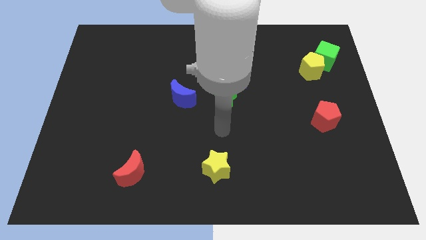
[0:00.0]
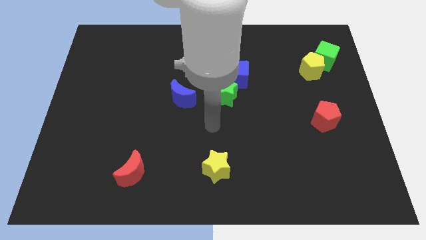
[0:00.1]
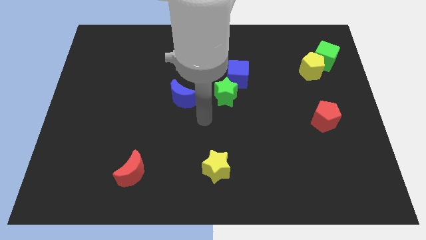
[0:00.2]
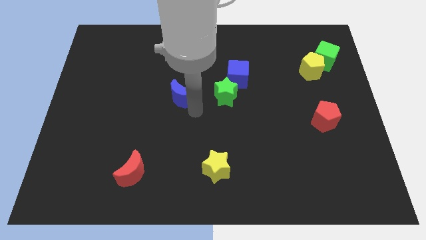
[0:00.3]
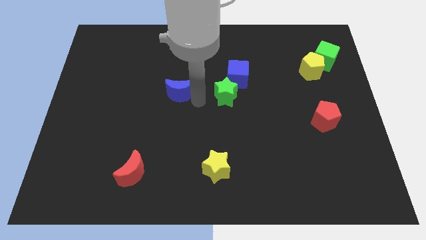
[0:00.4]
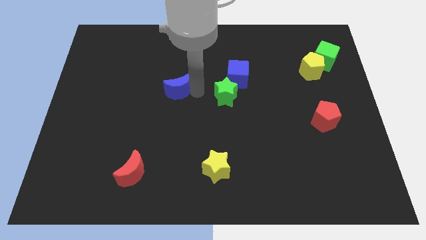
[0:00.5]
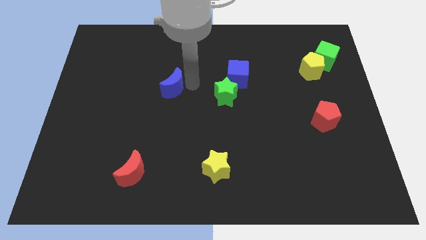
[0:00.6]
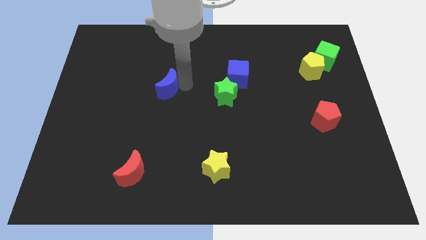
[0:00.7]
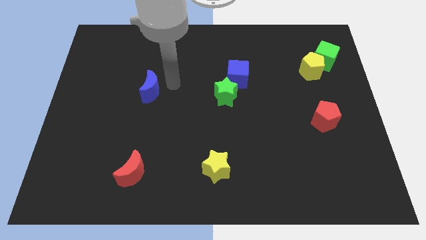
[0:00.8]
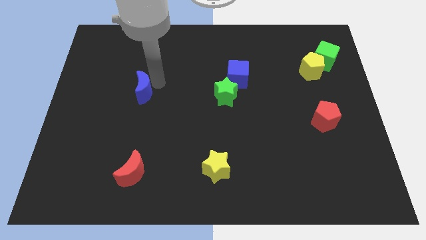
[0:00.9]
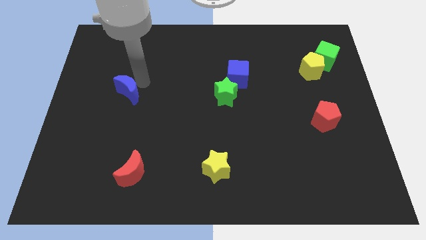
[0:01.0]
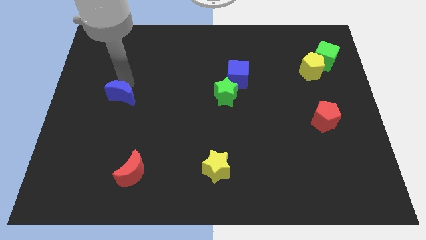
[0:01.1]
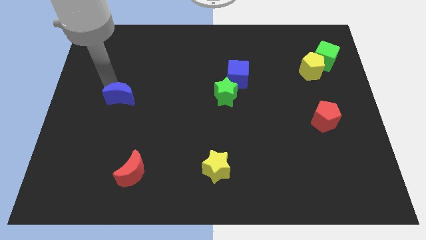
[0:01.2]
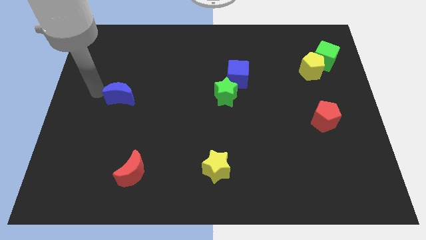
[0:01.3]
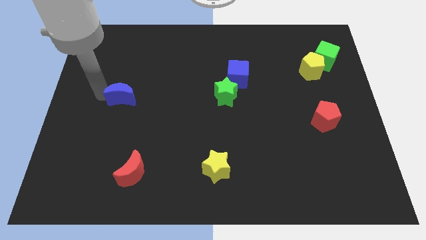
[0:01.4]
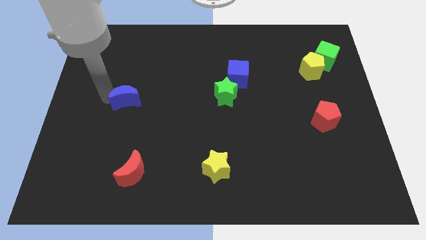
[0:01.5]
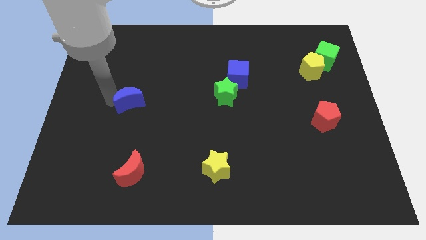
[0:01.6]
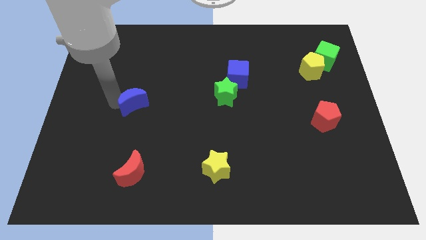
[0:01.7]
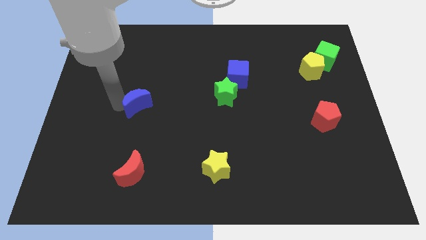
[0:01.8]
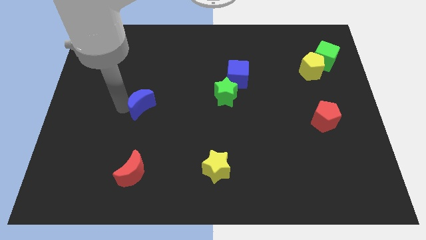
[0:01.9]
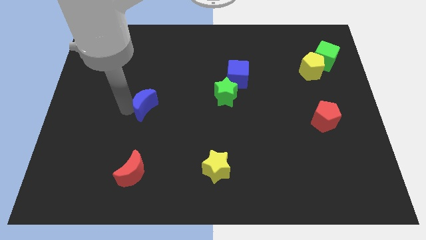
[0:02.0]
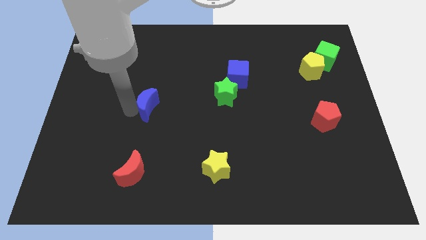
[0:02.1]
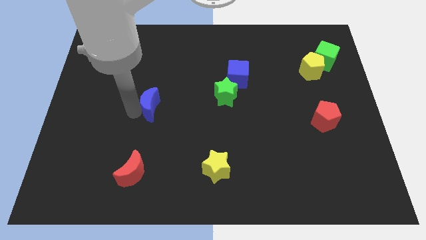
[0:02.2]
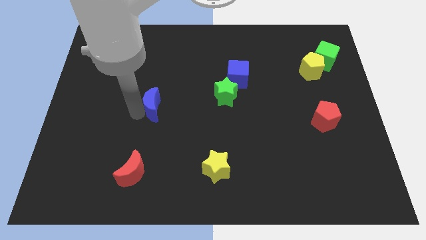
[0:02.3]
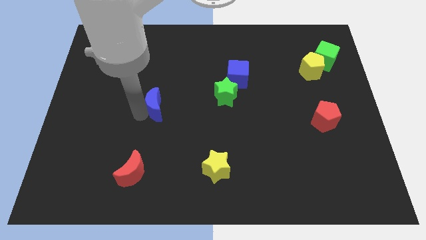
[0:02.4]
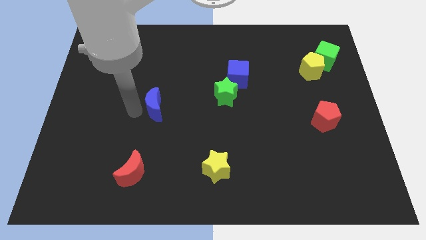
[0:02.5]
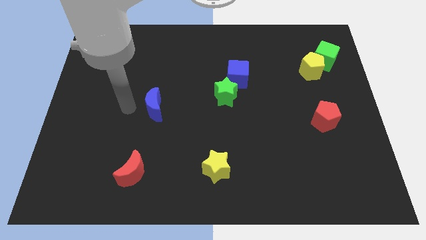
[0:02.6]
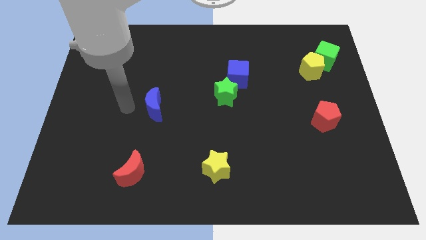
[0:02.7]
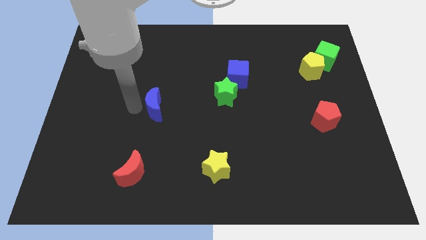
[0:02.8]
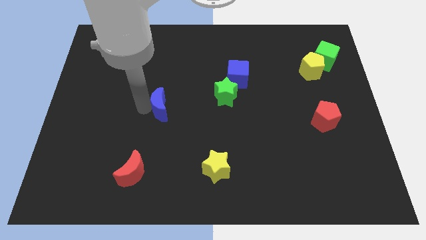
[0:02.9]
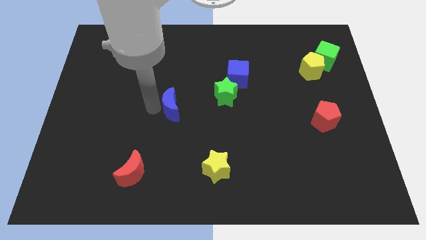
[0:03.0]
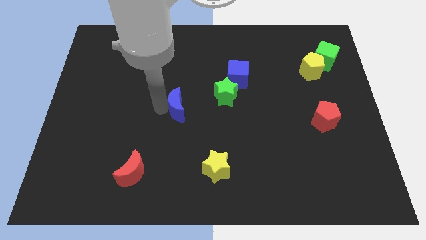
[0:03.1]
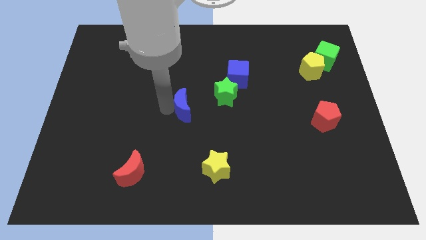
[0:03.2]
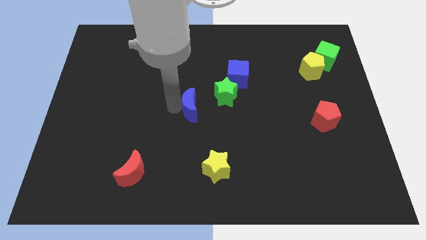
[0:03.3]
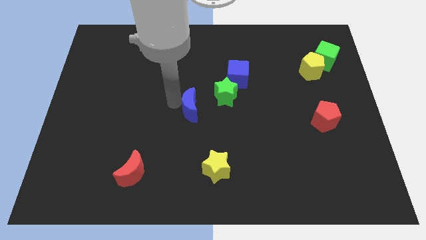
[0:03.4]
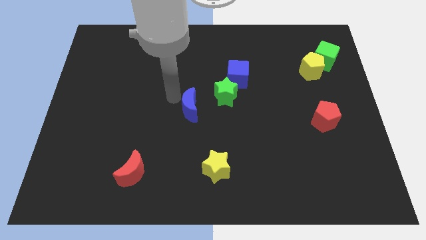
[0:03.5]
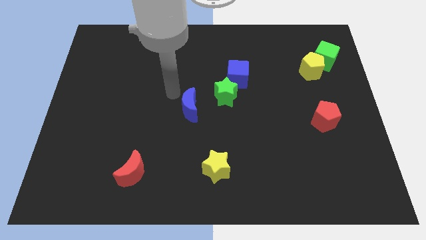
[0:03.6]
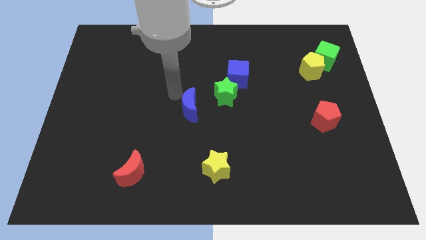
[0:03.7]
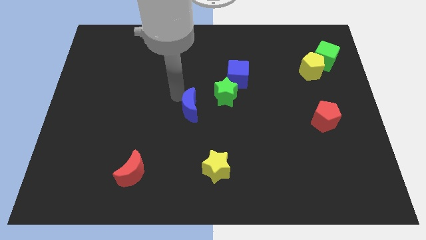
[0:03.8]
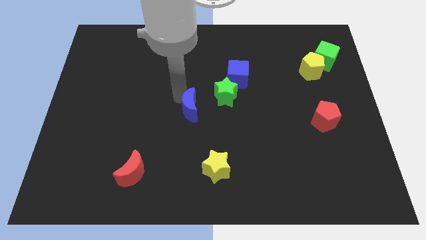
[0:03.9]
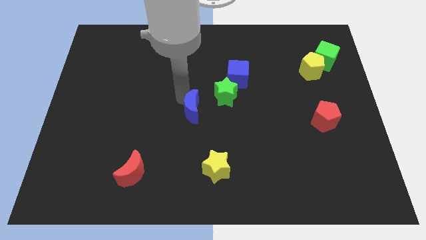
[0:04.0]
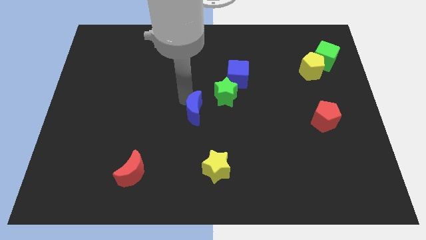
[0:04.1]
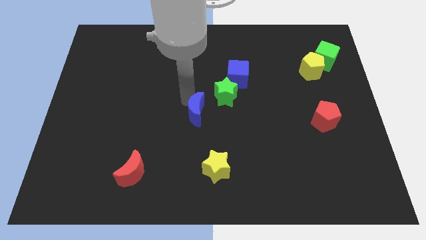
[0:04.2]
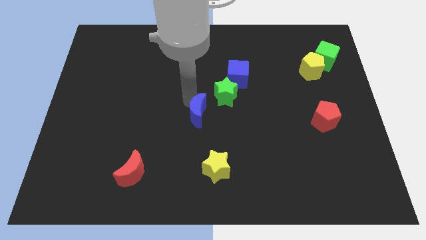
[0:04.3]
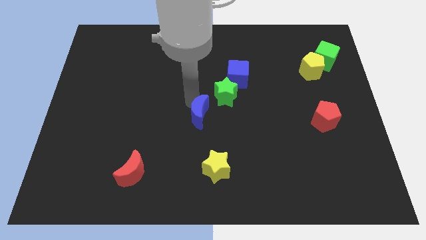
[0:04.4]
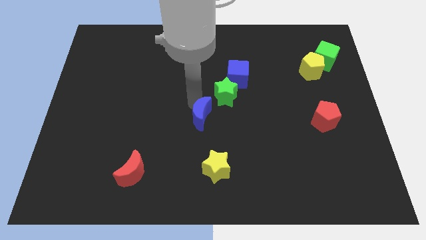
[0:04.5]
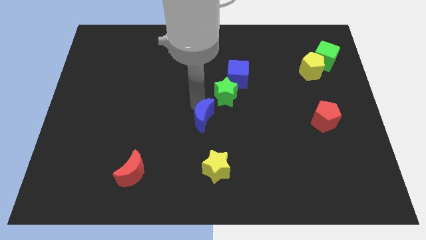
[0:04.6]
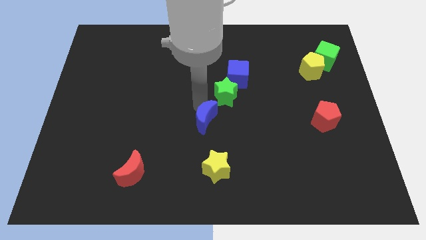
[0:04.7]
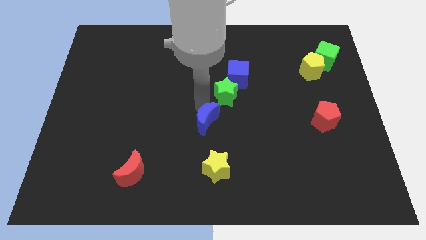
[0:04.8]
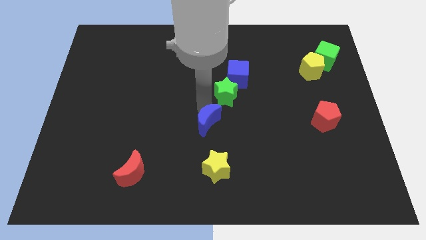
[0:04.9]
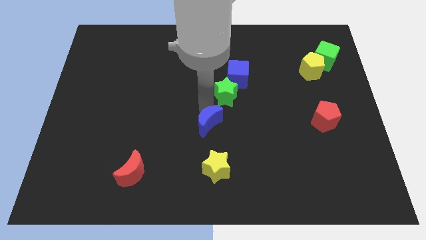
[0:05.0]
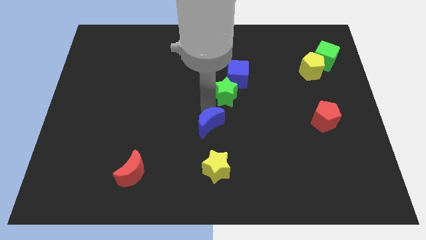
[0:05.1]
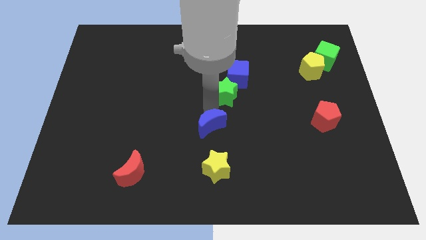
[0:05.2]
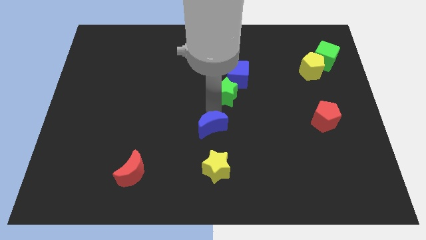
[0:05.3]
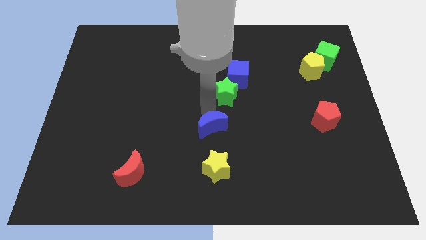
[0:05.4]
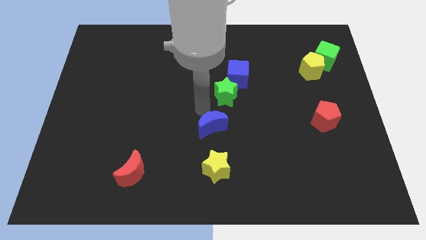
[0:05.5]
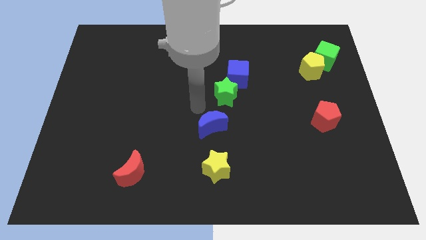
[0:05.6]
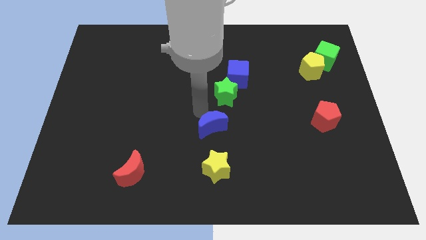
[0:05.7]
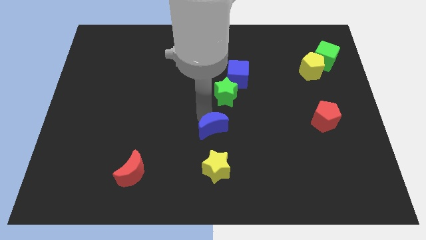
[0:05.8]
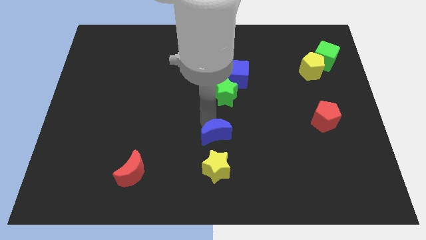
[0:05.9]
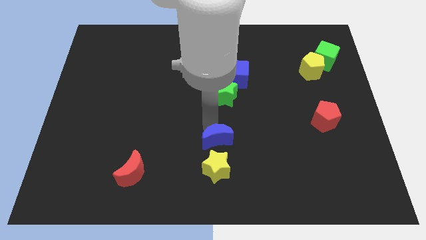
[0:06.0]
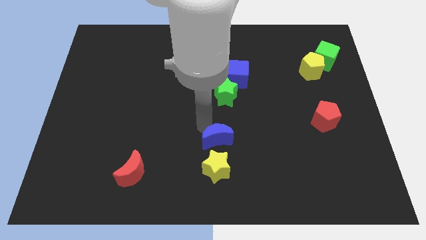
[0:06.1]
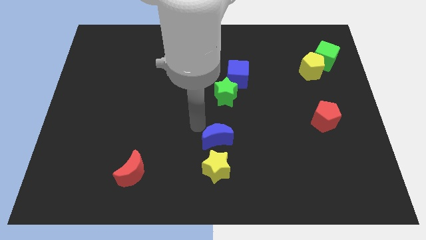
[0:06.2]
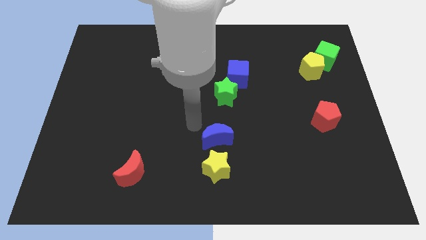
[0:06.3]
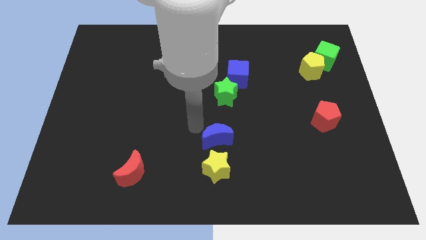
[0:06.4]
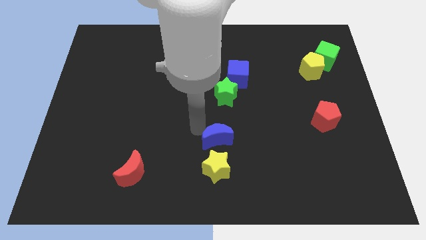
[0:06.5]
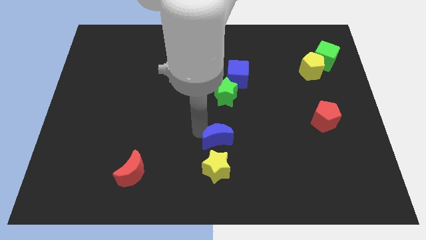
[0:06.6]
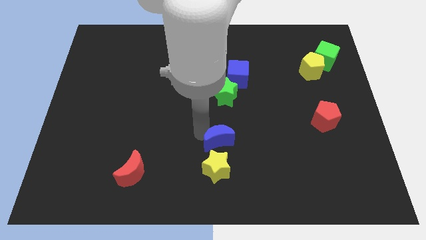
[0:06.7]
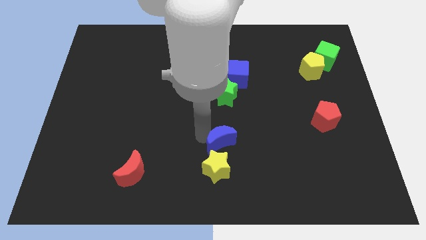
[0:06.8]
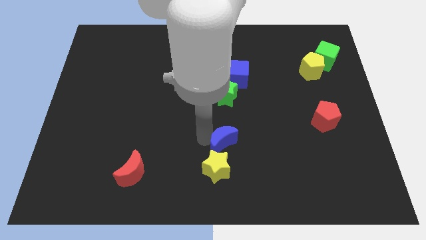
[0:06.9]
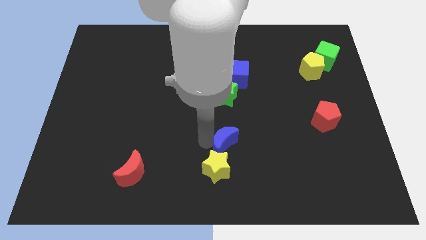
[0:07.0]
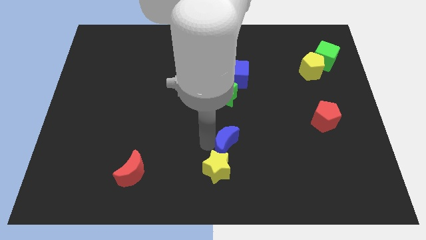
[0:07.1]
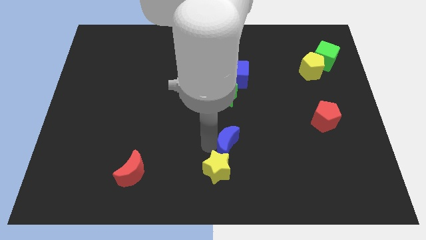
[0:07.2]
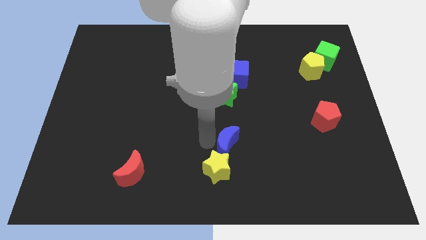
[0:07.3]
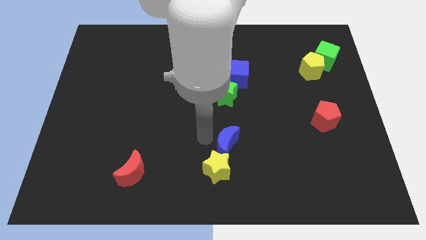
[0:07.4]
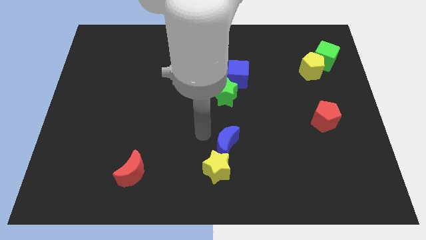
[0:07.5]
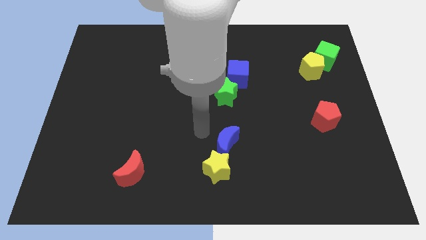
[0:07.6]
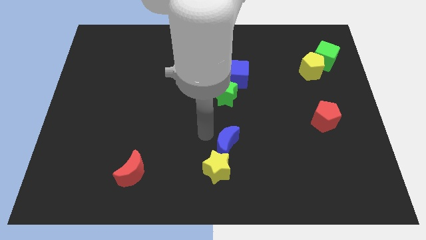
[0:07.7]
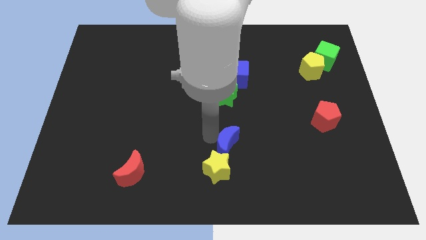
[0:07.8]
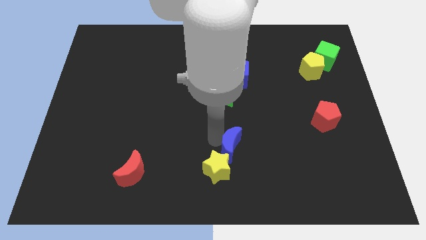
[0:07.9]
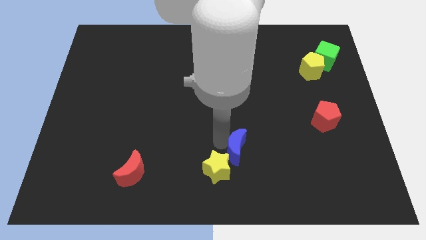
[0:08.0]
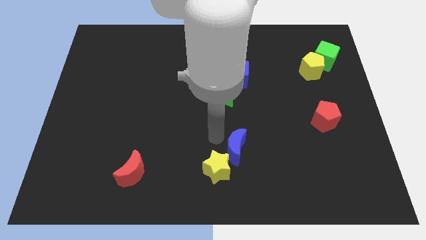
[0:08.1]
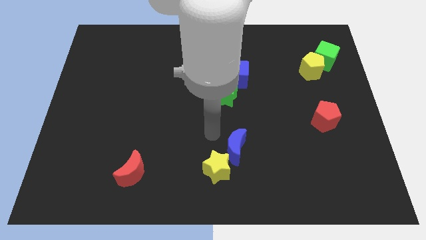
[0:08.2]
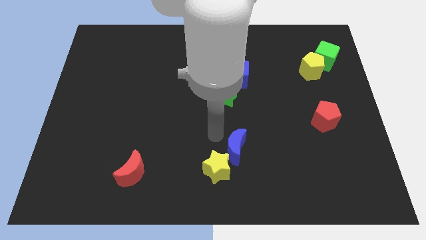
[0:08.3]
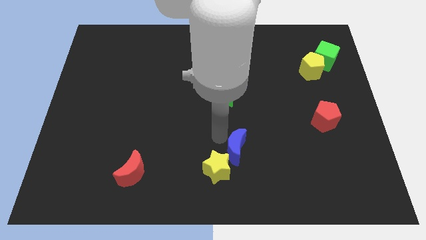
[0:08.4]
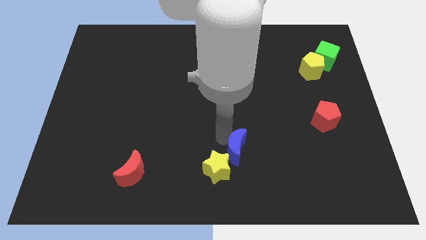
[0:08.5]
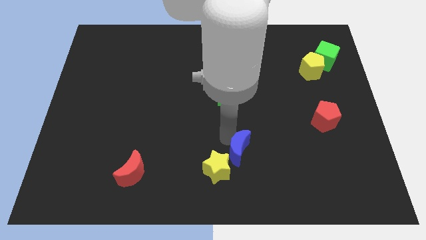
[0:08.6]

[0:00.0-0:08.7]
slide the blue moon to the right of the yellow star
